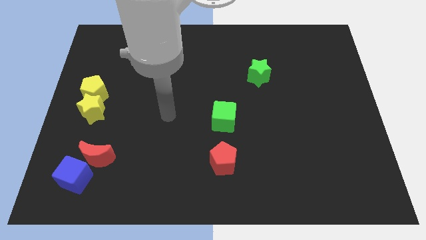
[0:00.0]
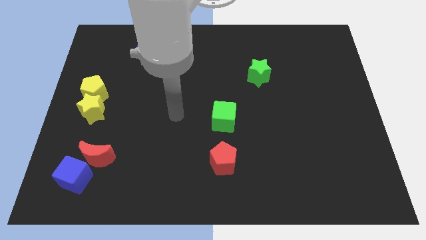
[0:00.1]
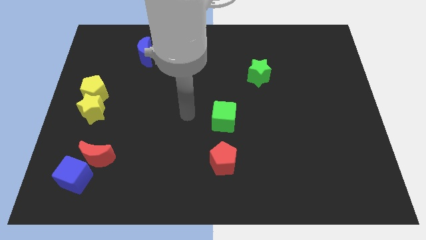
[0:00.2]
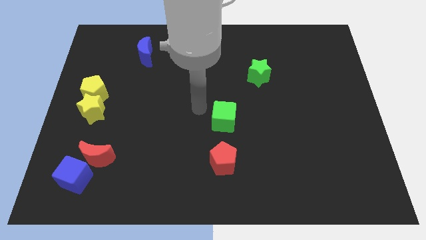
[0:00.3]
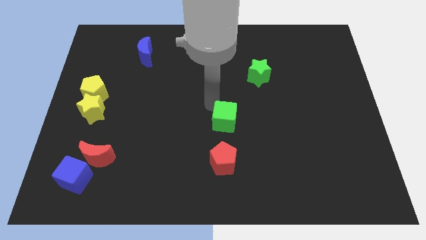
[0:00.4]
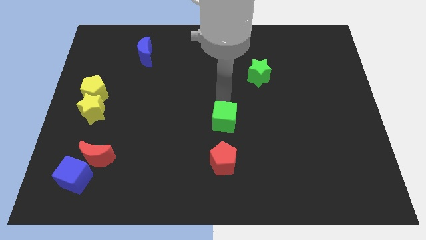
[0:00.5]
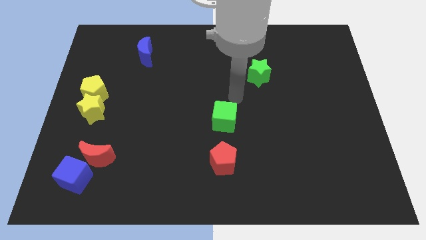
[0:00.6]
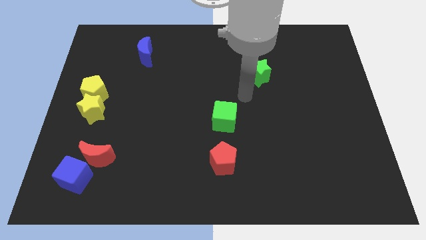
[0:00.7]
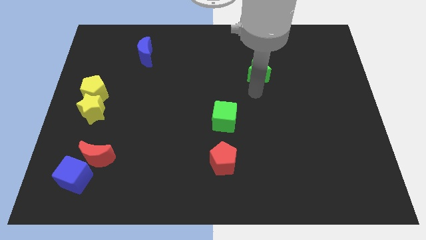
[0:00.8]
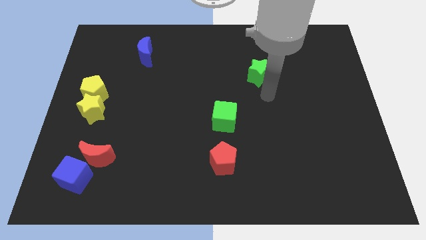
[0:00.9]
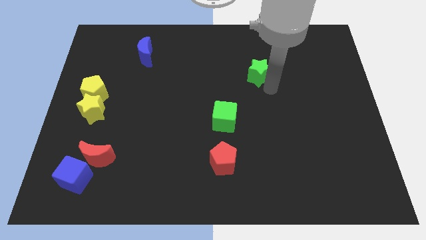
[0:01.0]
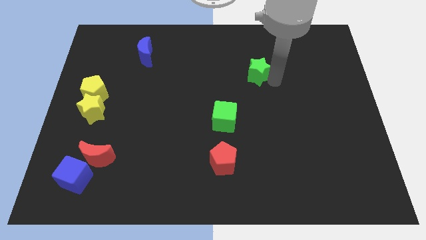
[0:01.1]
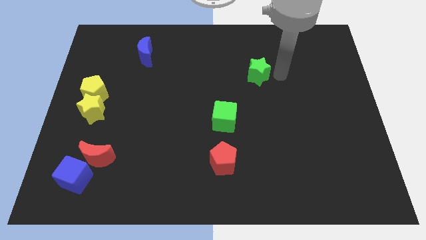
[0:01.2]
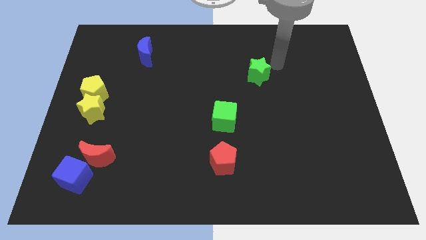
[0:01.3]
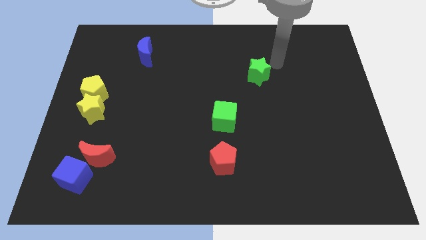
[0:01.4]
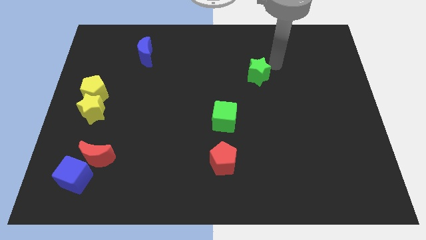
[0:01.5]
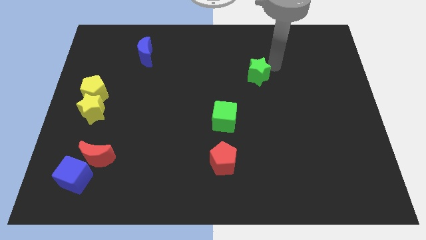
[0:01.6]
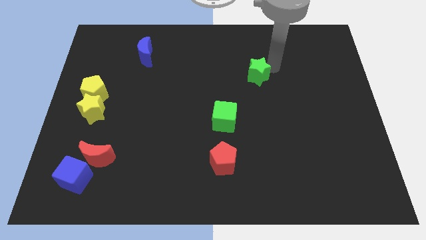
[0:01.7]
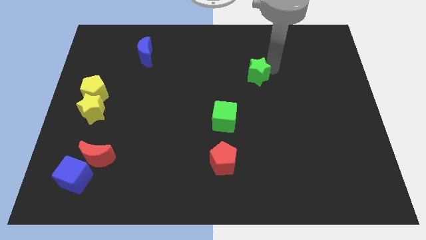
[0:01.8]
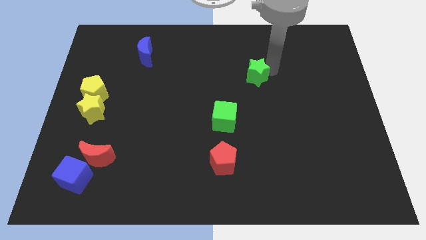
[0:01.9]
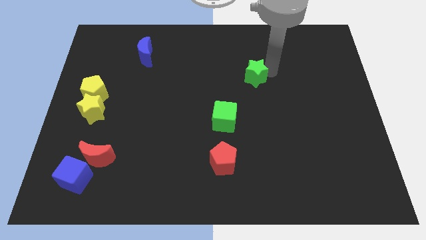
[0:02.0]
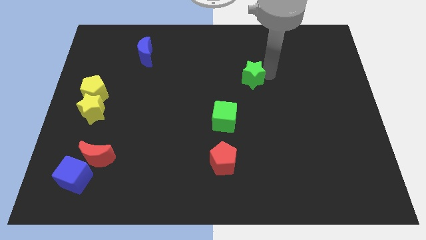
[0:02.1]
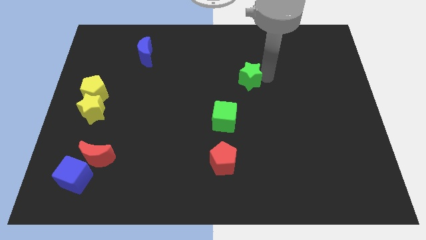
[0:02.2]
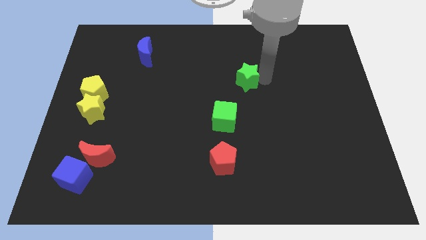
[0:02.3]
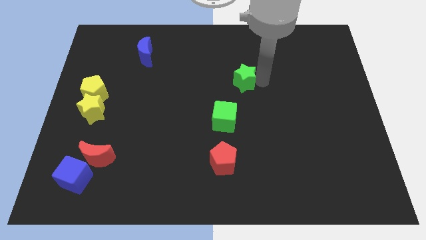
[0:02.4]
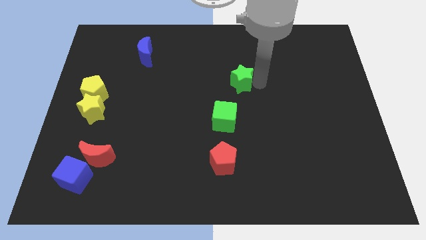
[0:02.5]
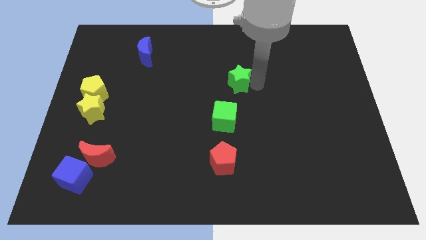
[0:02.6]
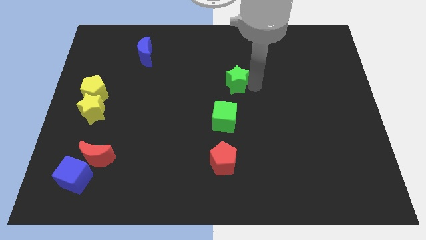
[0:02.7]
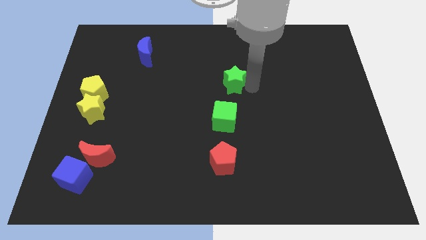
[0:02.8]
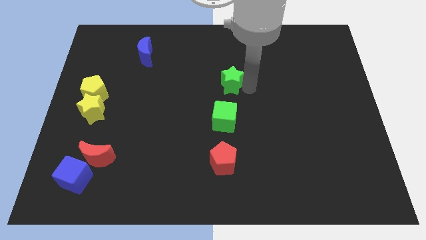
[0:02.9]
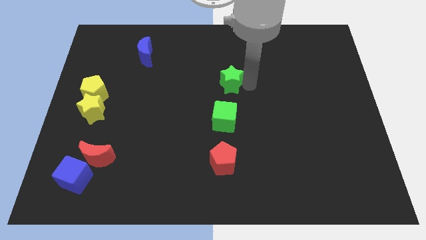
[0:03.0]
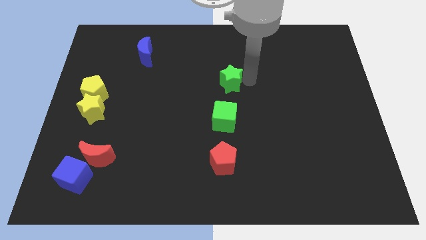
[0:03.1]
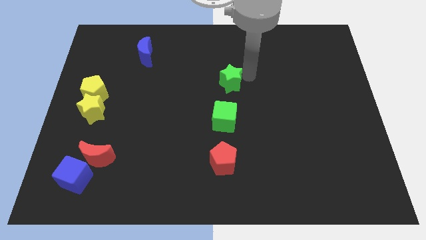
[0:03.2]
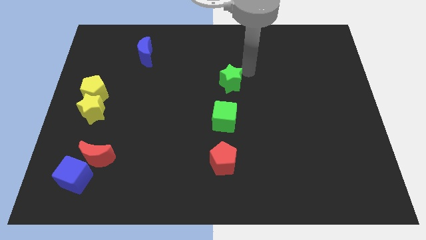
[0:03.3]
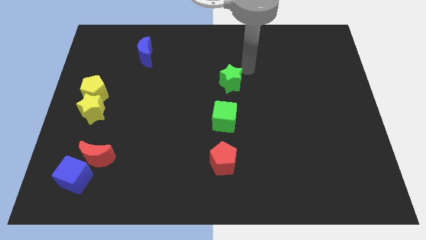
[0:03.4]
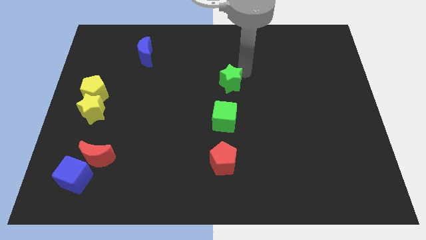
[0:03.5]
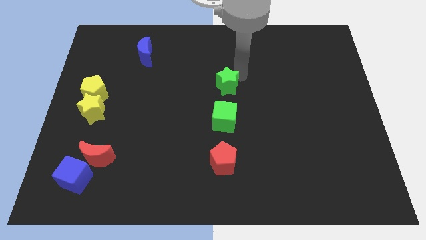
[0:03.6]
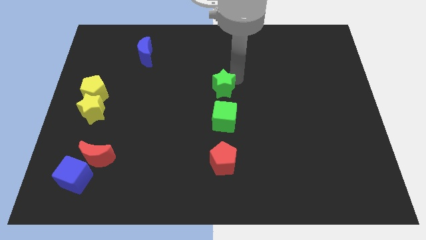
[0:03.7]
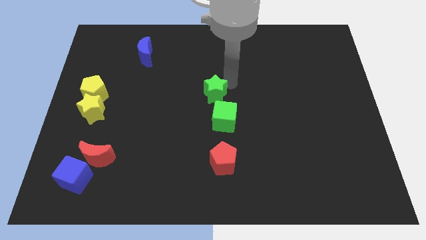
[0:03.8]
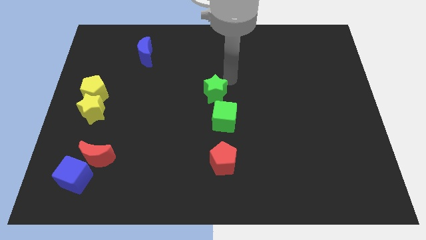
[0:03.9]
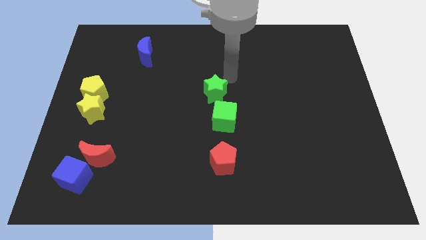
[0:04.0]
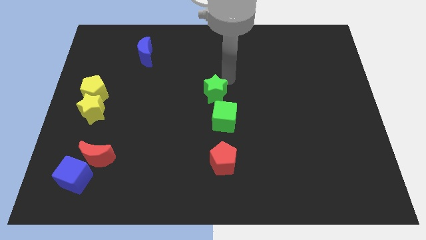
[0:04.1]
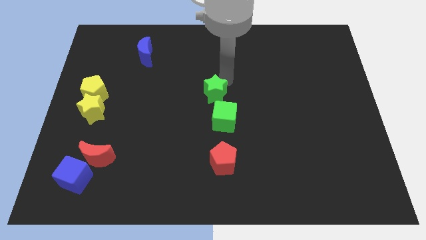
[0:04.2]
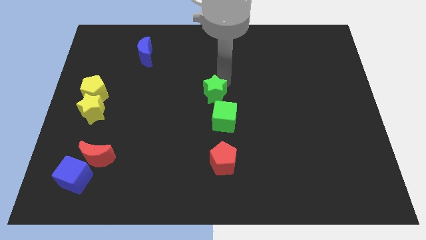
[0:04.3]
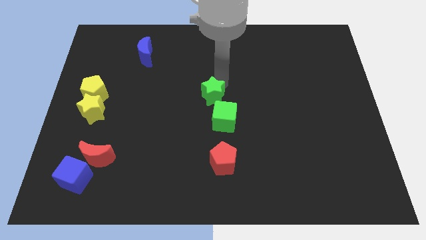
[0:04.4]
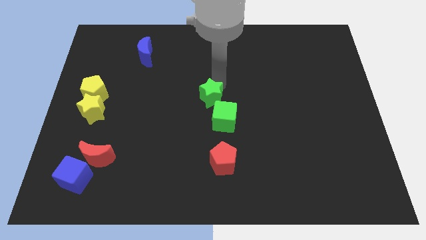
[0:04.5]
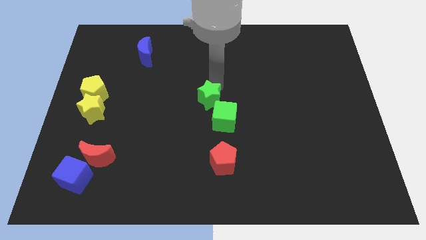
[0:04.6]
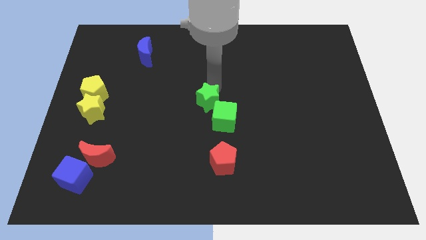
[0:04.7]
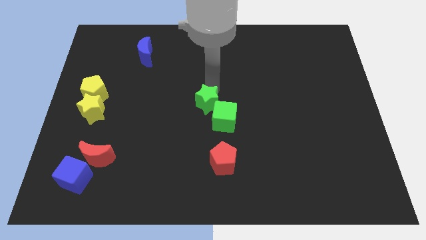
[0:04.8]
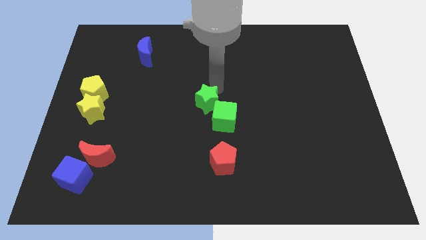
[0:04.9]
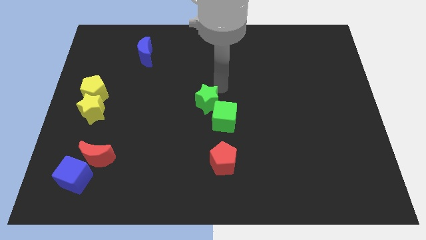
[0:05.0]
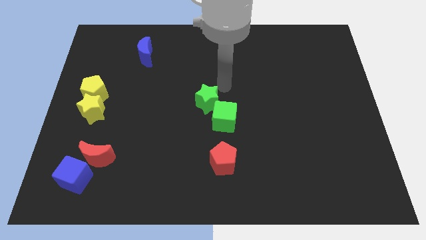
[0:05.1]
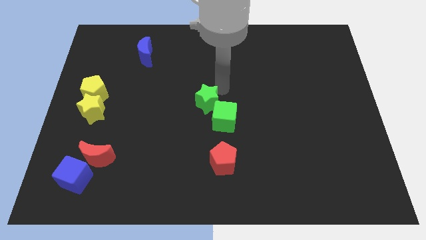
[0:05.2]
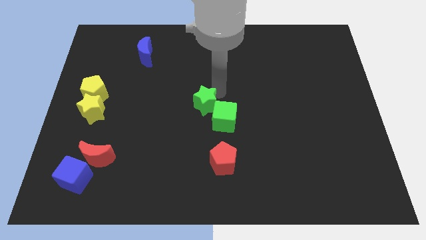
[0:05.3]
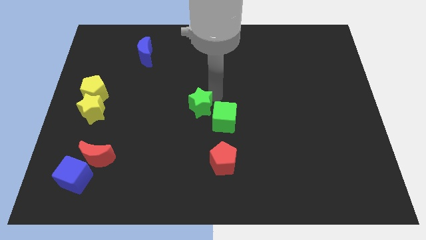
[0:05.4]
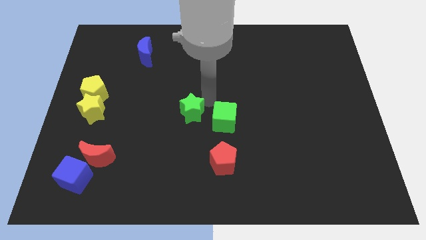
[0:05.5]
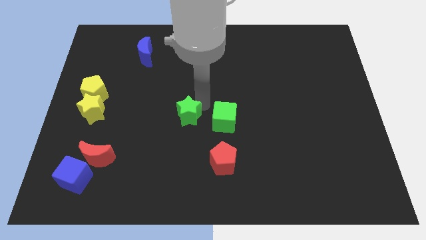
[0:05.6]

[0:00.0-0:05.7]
slide the green star down and to the left

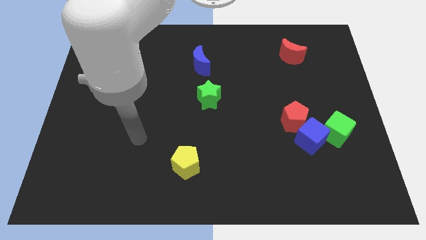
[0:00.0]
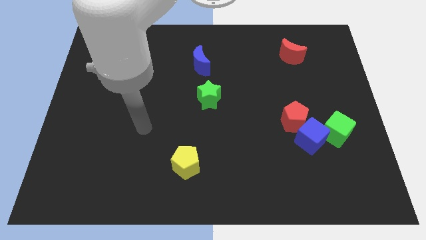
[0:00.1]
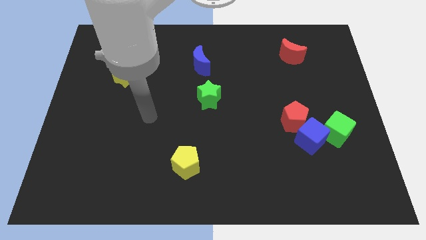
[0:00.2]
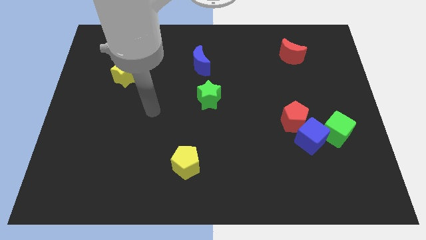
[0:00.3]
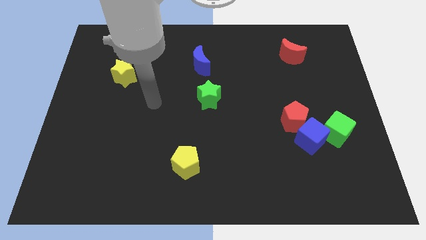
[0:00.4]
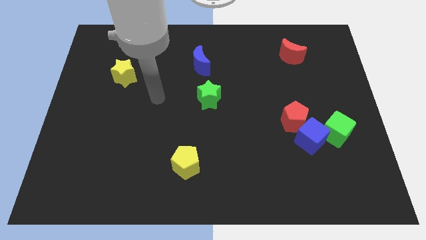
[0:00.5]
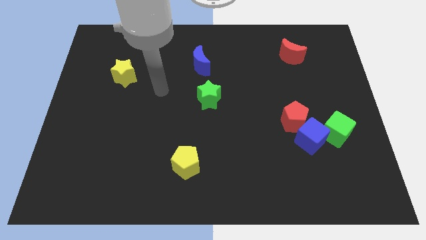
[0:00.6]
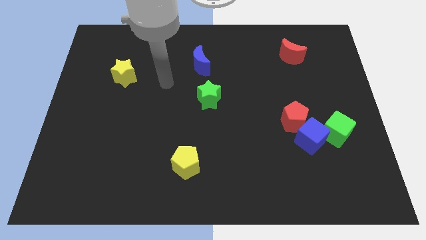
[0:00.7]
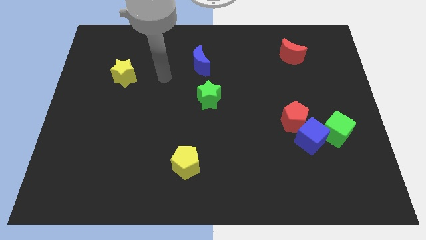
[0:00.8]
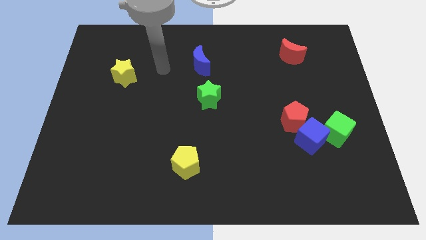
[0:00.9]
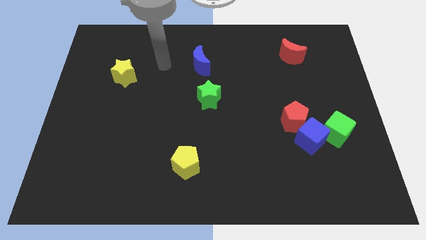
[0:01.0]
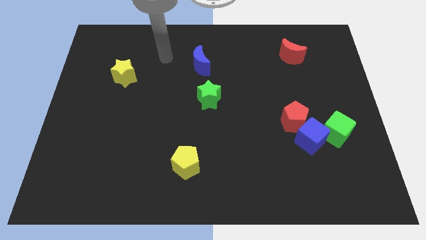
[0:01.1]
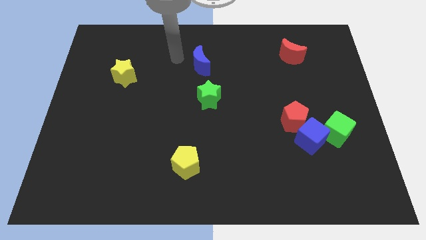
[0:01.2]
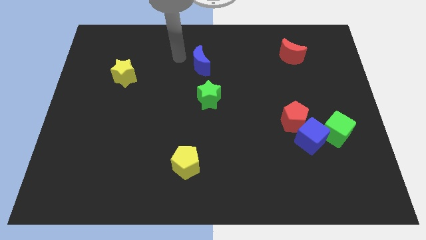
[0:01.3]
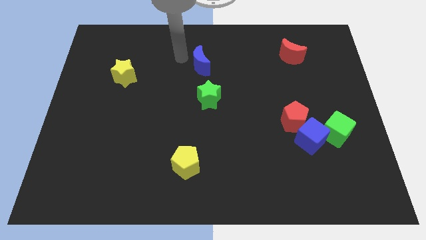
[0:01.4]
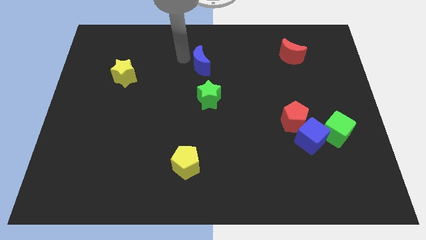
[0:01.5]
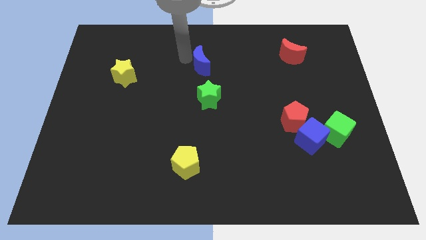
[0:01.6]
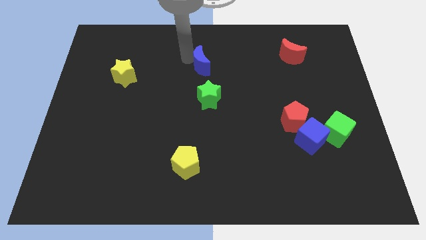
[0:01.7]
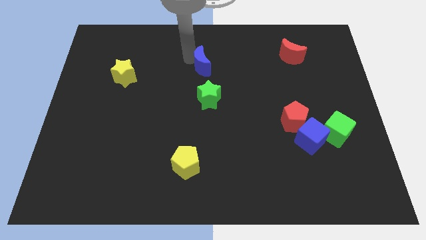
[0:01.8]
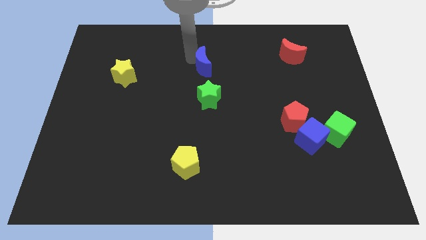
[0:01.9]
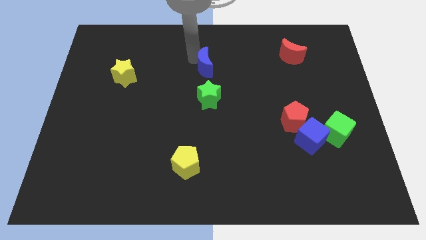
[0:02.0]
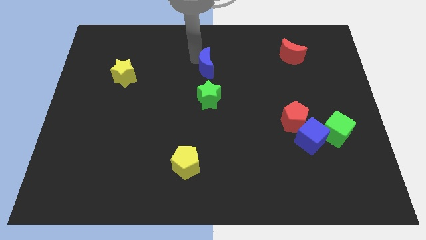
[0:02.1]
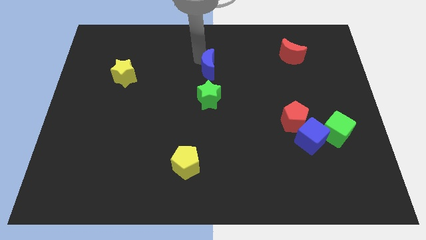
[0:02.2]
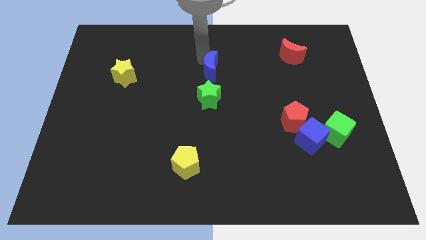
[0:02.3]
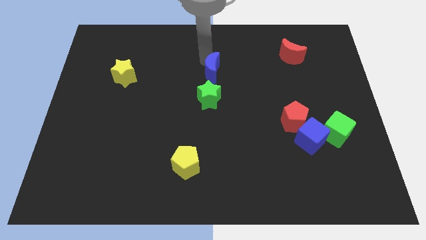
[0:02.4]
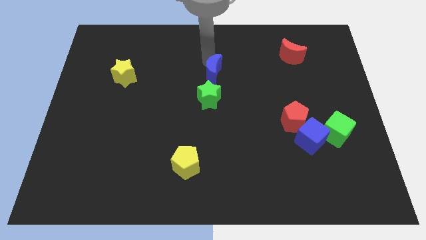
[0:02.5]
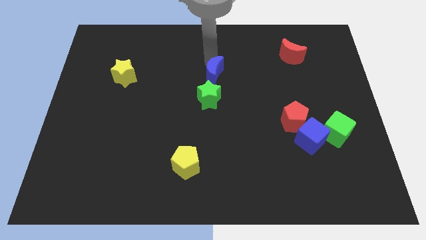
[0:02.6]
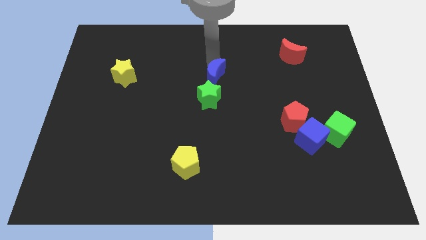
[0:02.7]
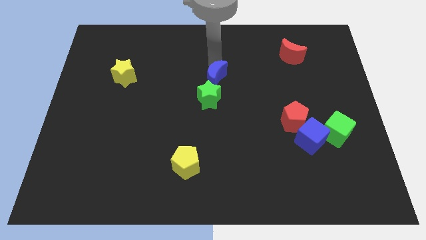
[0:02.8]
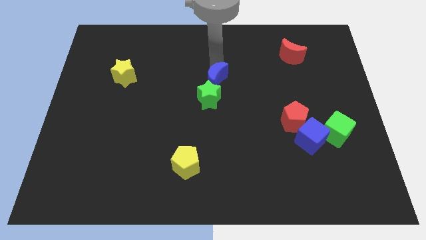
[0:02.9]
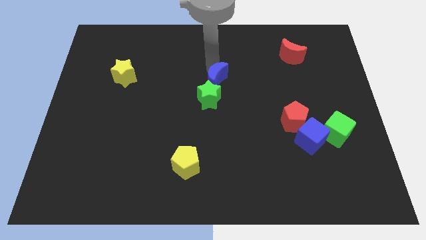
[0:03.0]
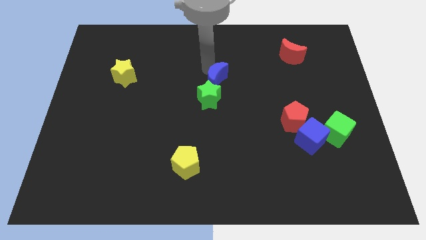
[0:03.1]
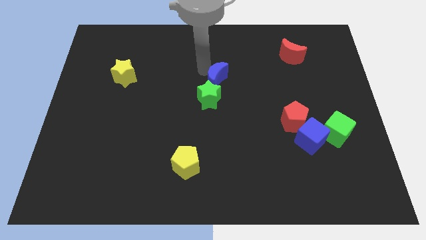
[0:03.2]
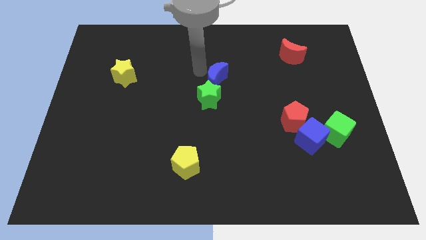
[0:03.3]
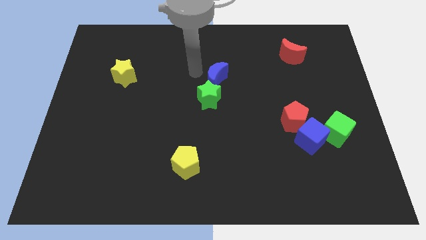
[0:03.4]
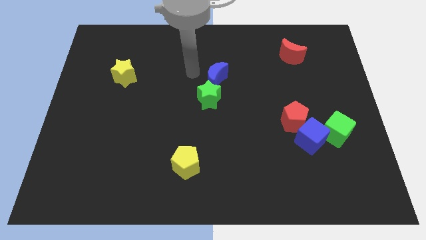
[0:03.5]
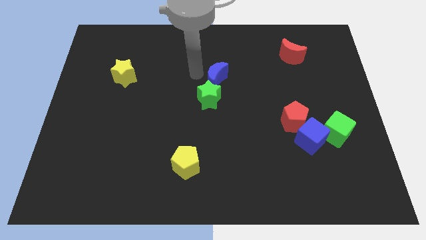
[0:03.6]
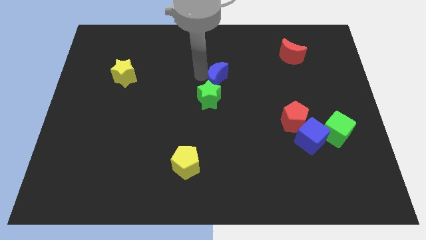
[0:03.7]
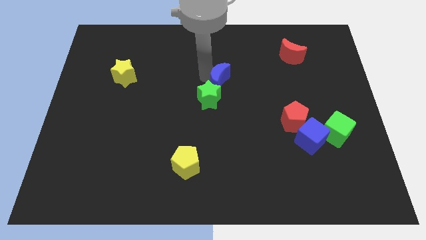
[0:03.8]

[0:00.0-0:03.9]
slide the blue moon down and right diagonally a bit
